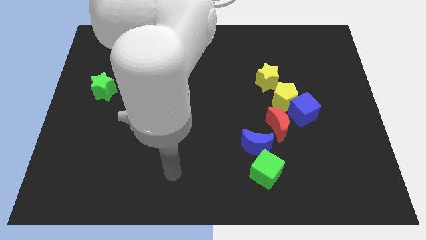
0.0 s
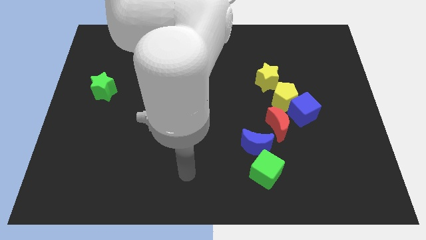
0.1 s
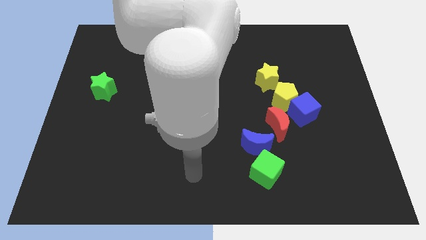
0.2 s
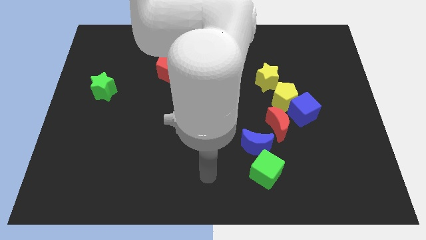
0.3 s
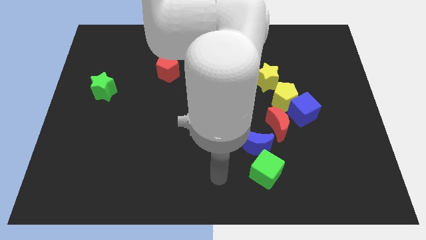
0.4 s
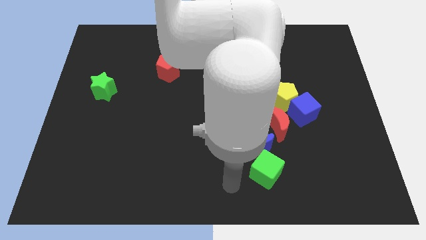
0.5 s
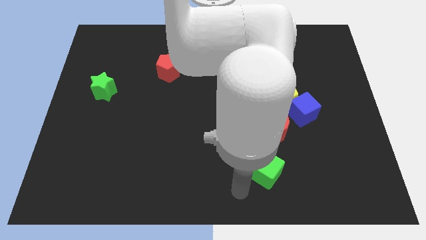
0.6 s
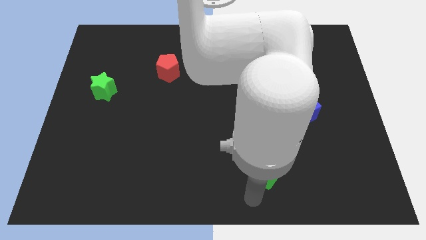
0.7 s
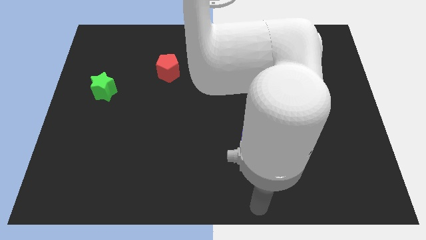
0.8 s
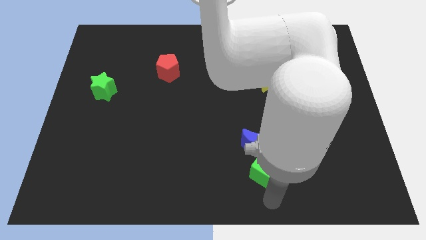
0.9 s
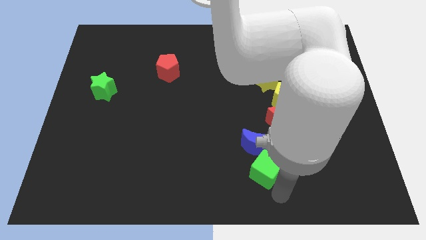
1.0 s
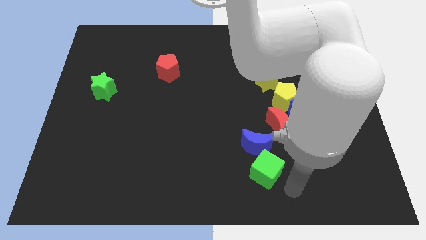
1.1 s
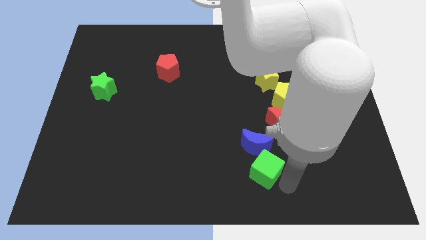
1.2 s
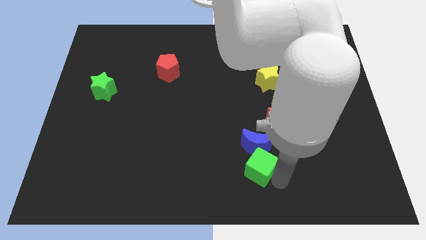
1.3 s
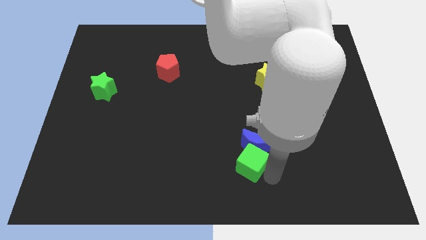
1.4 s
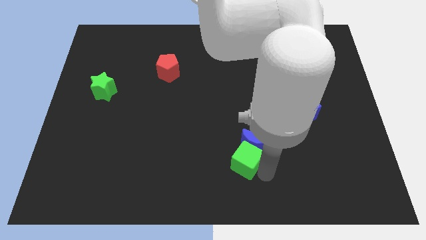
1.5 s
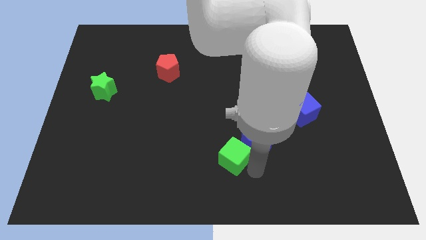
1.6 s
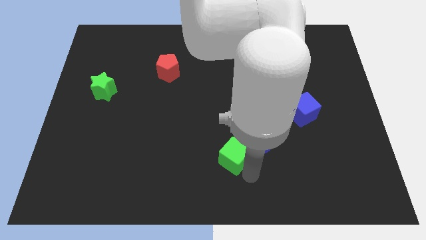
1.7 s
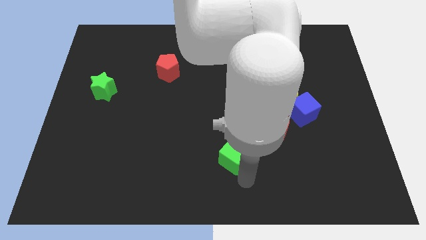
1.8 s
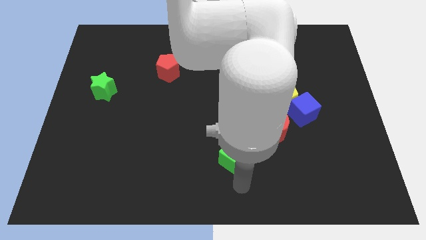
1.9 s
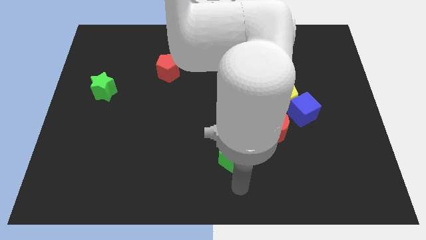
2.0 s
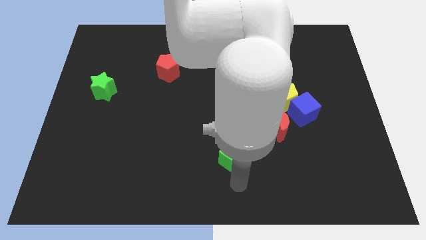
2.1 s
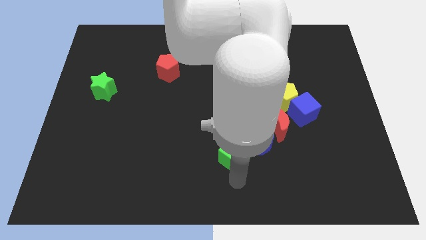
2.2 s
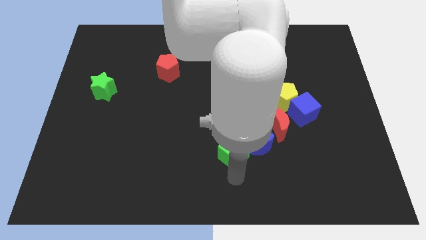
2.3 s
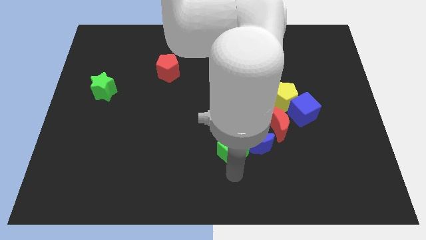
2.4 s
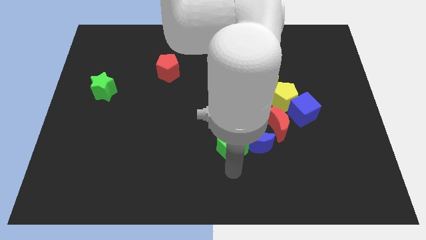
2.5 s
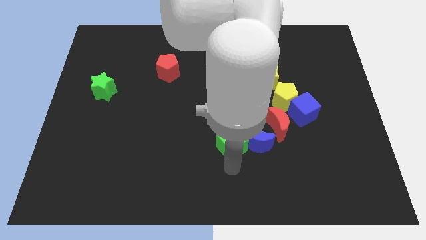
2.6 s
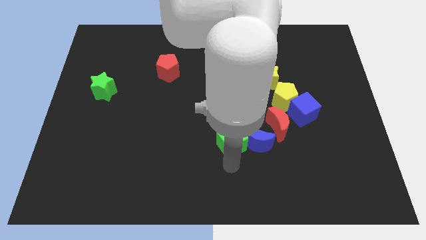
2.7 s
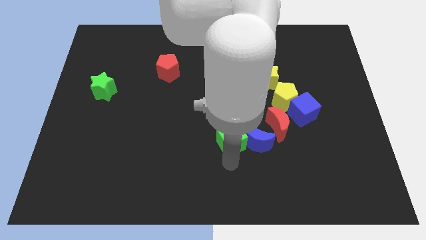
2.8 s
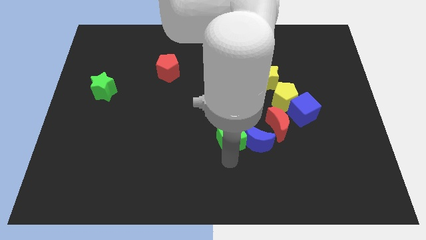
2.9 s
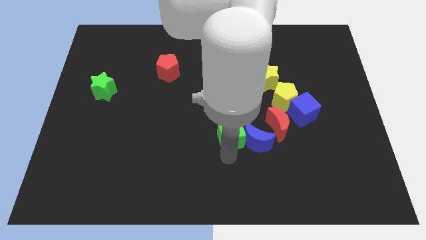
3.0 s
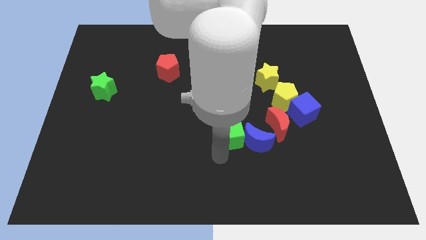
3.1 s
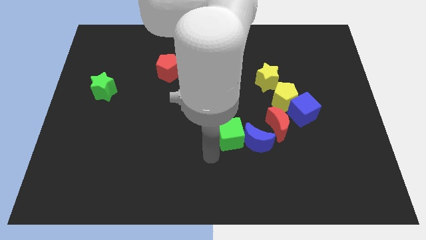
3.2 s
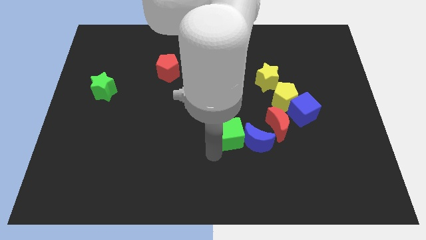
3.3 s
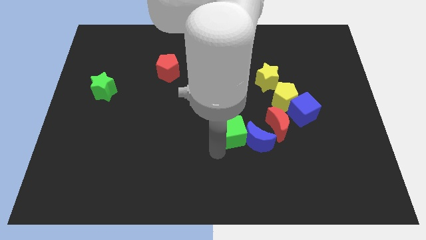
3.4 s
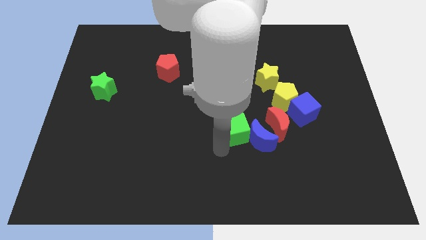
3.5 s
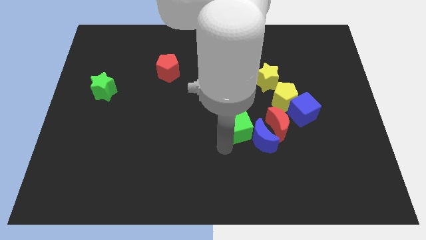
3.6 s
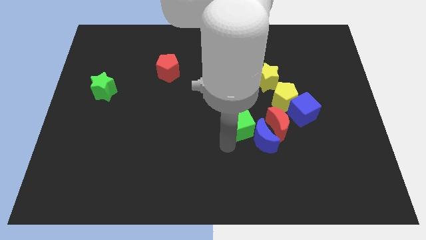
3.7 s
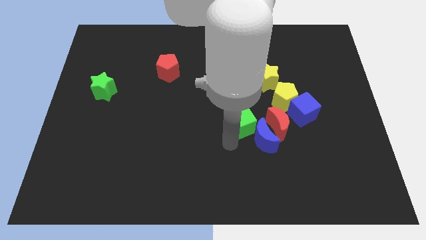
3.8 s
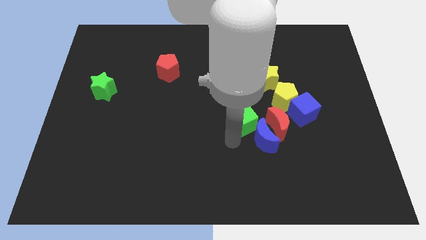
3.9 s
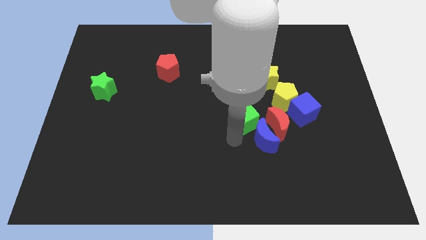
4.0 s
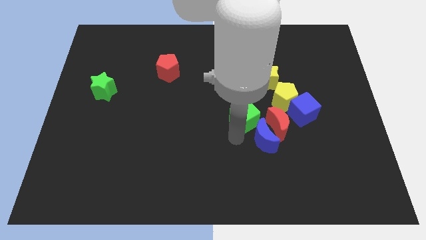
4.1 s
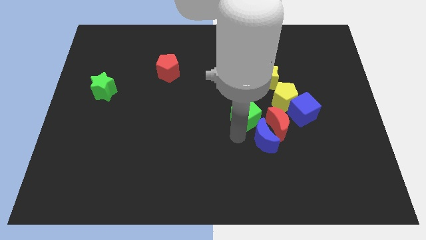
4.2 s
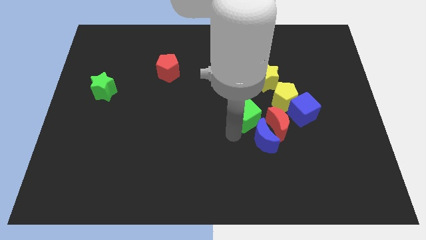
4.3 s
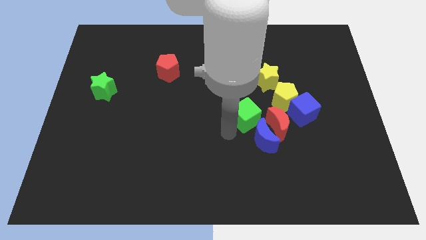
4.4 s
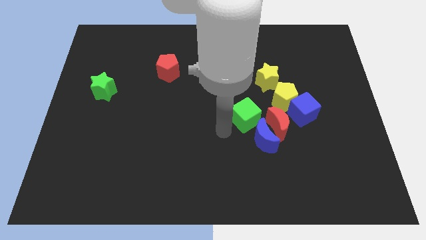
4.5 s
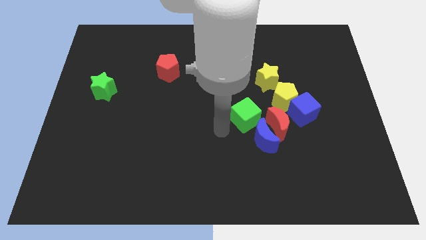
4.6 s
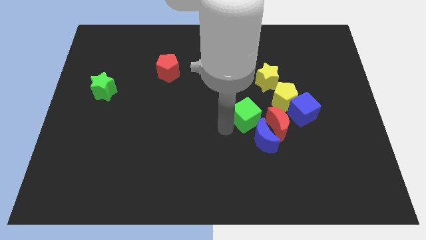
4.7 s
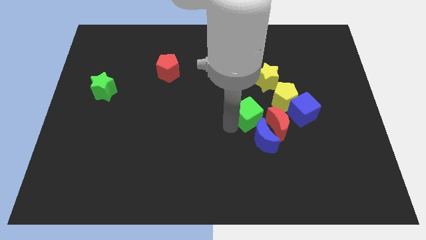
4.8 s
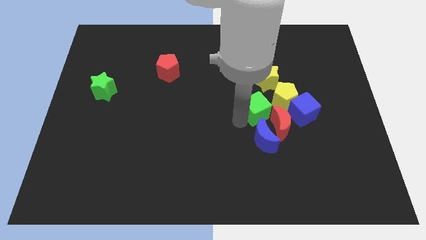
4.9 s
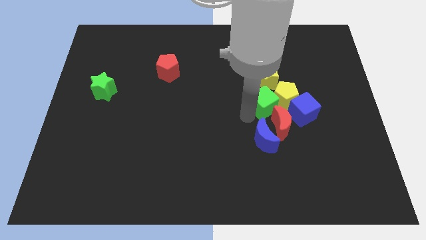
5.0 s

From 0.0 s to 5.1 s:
put the green cube next to the yellow pentagon

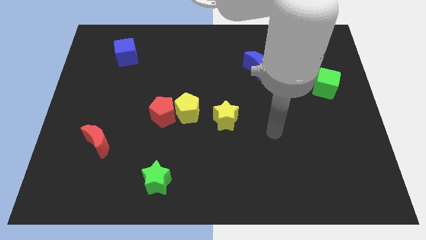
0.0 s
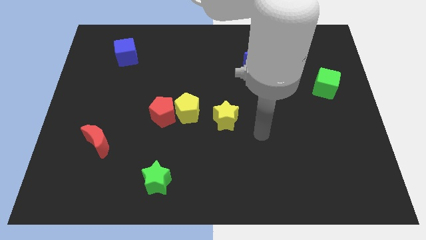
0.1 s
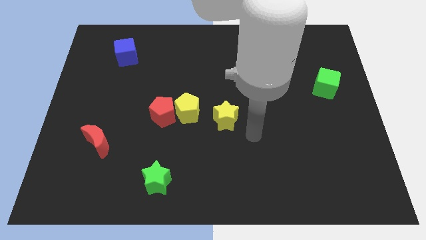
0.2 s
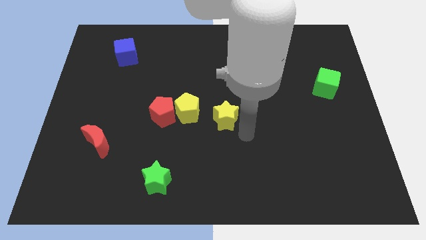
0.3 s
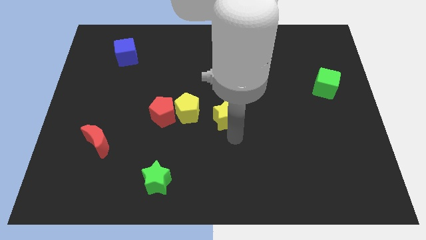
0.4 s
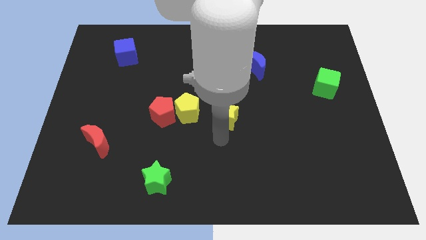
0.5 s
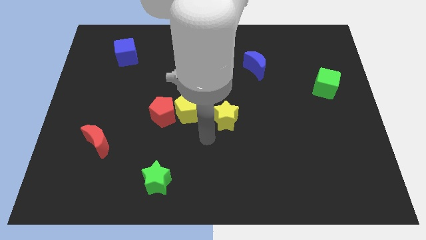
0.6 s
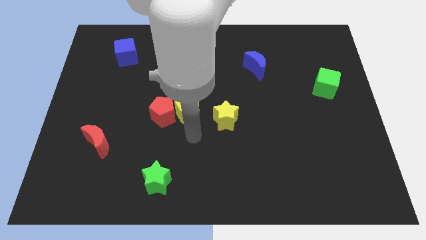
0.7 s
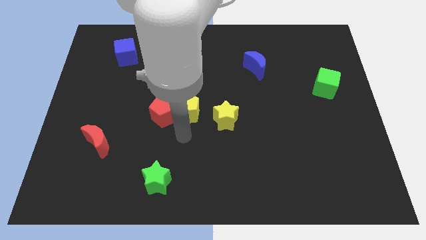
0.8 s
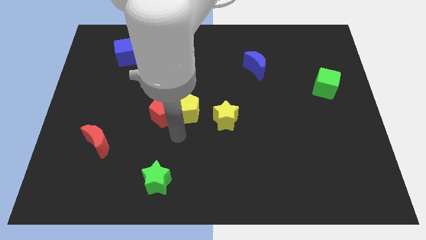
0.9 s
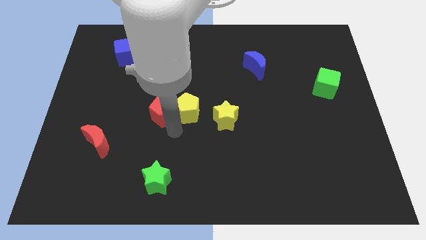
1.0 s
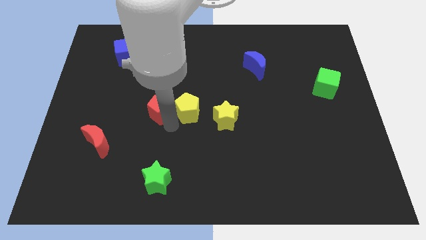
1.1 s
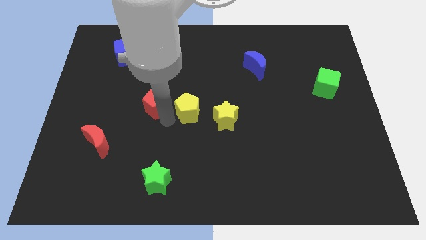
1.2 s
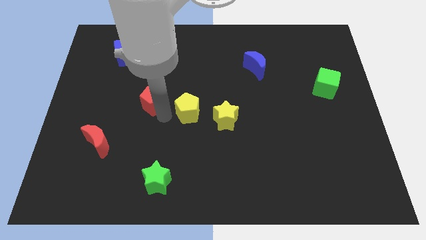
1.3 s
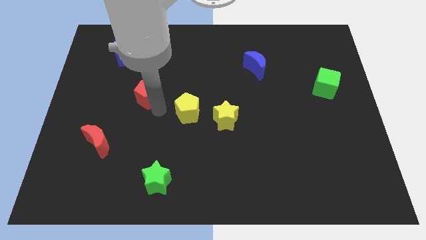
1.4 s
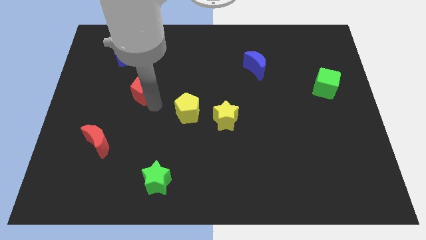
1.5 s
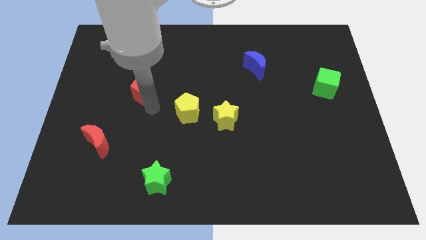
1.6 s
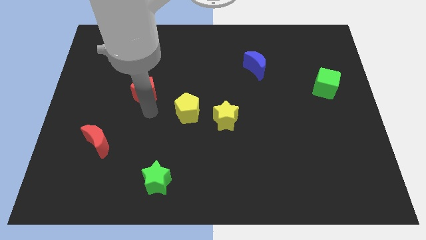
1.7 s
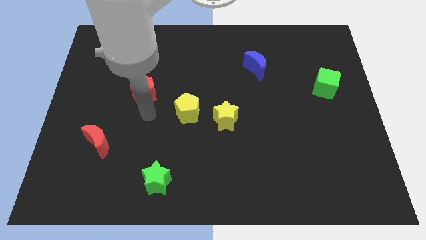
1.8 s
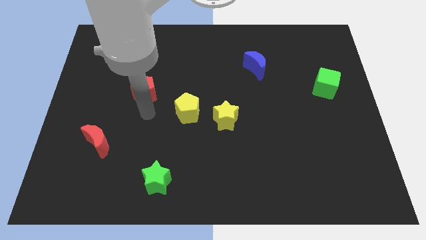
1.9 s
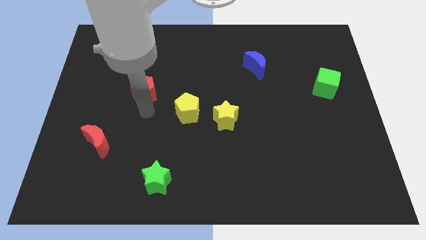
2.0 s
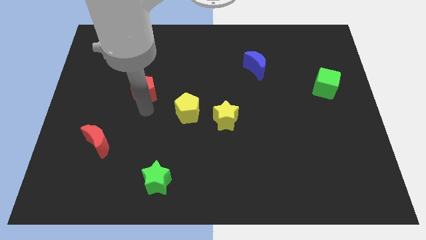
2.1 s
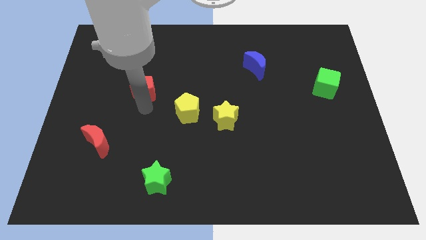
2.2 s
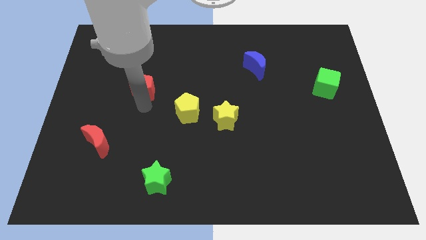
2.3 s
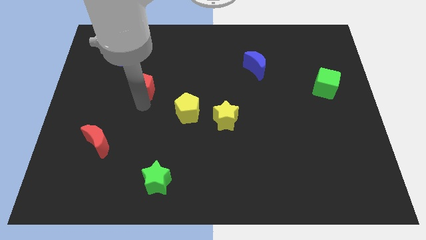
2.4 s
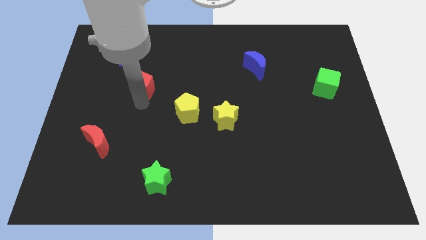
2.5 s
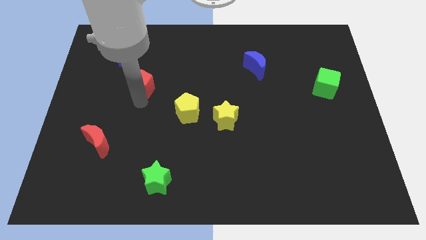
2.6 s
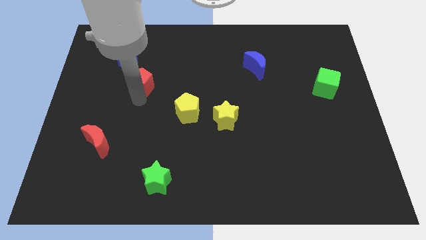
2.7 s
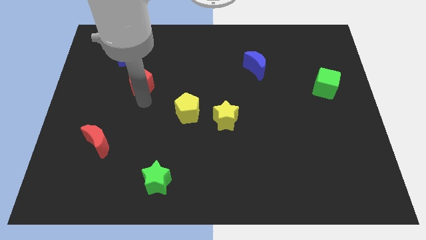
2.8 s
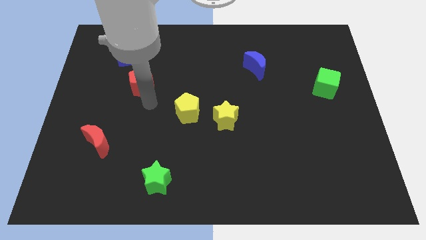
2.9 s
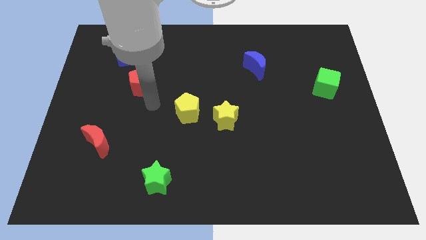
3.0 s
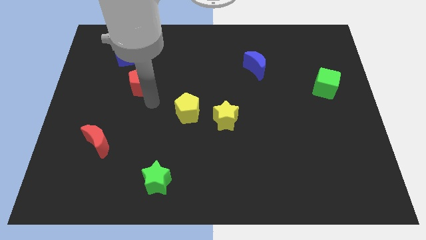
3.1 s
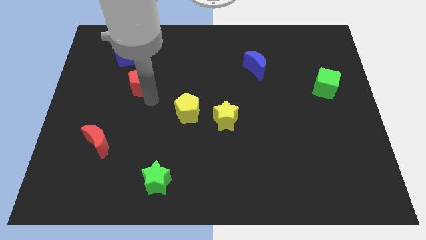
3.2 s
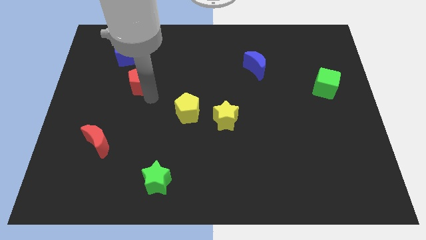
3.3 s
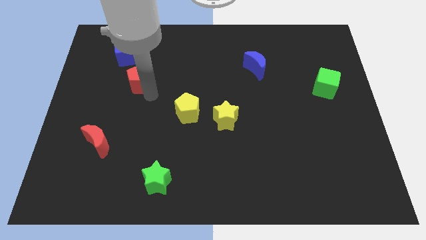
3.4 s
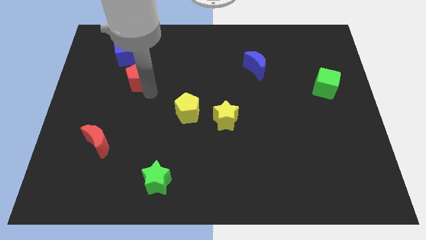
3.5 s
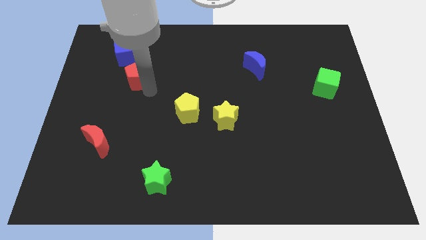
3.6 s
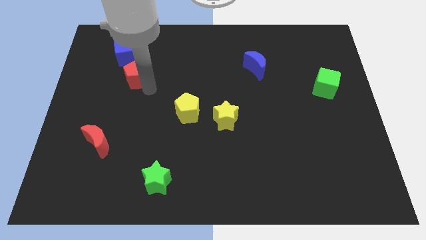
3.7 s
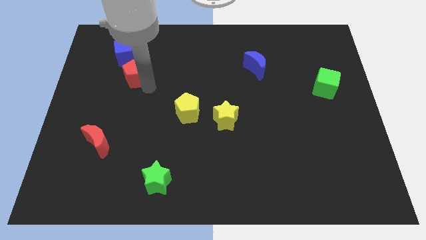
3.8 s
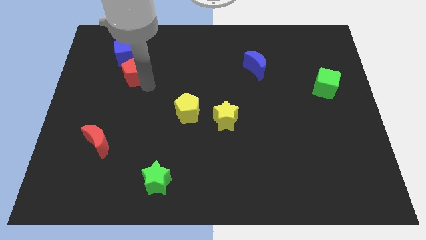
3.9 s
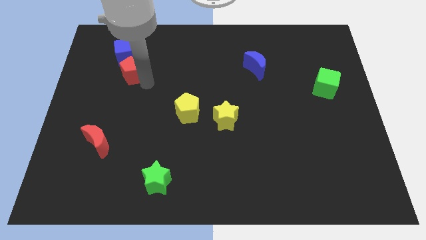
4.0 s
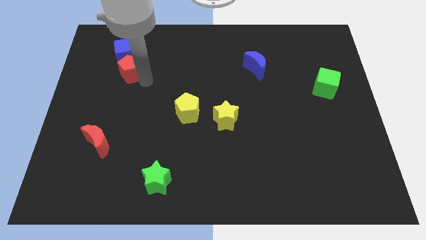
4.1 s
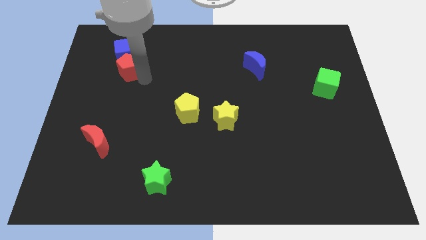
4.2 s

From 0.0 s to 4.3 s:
move the red pentagon close to the blue cube
